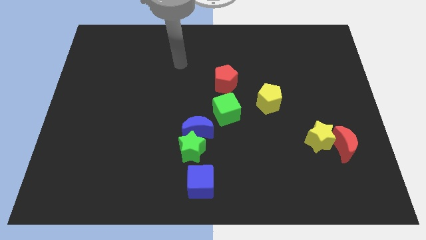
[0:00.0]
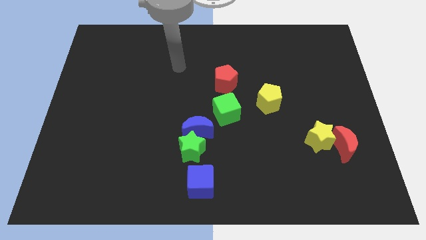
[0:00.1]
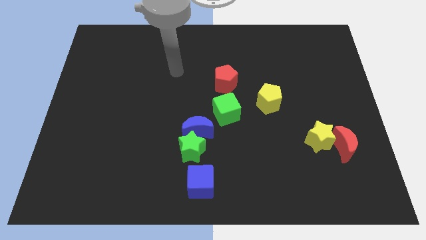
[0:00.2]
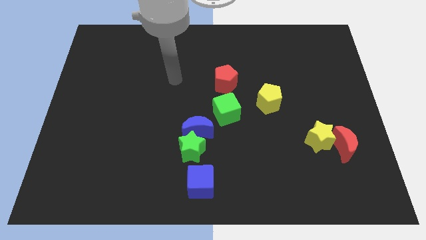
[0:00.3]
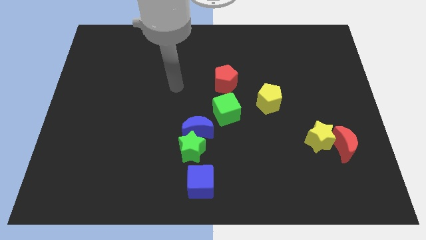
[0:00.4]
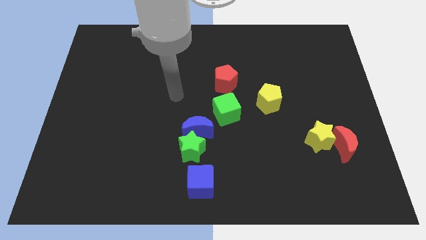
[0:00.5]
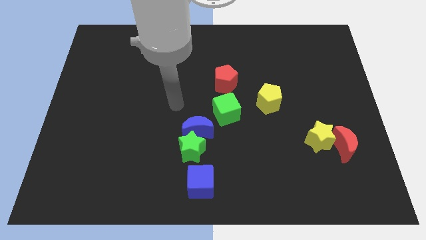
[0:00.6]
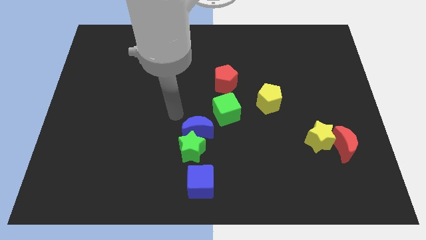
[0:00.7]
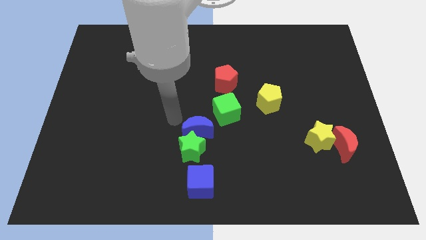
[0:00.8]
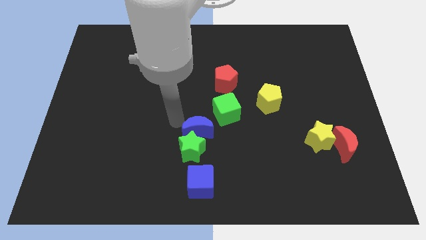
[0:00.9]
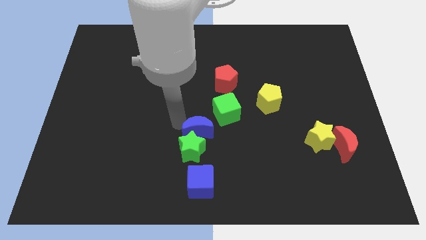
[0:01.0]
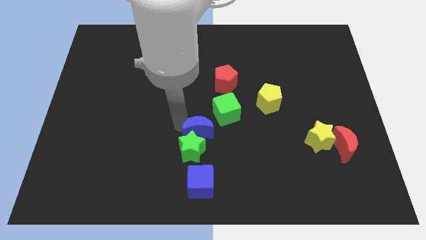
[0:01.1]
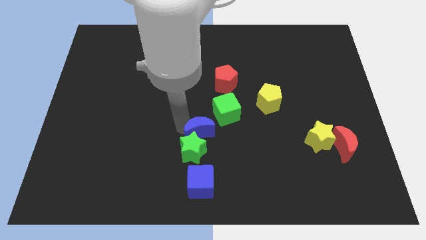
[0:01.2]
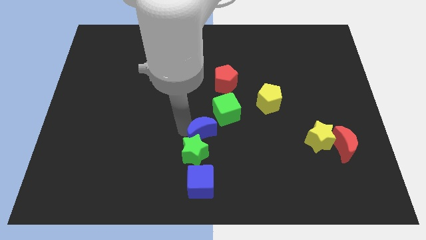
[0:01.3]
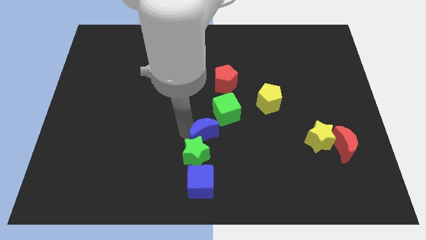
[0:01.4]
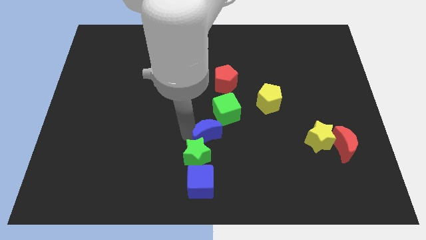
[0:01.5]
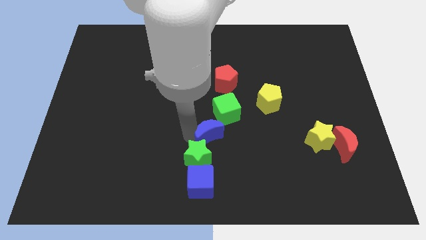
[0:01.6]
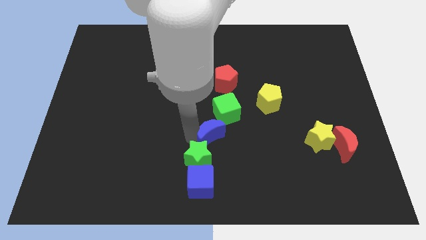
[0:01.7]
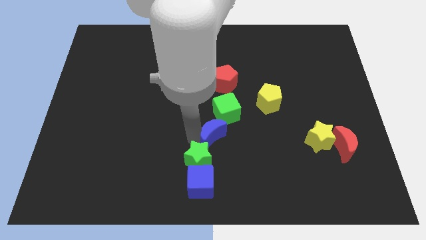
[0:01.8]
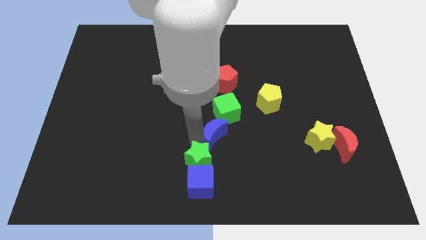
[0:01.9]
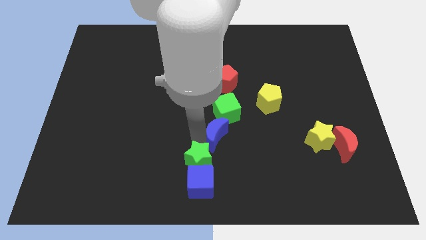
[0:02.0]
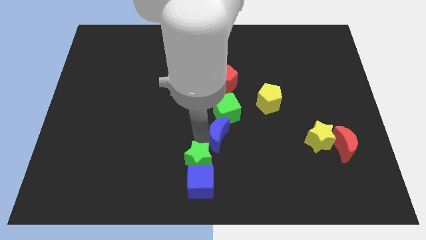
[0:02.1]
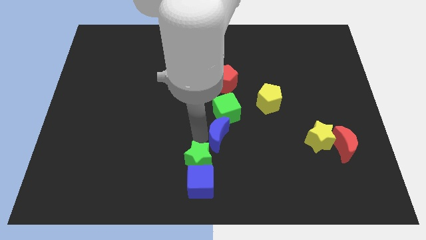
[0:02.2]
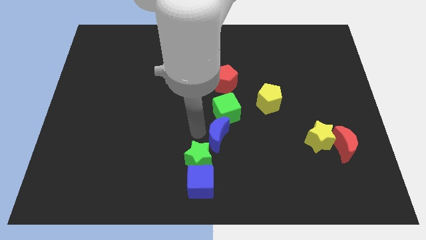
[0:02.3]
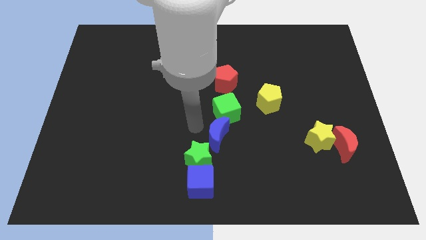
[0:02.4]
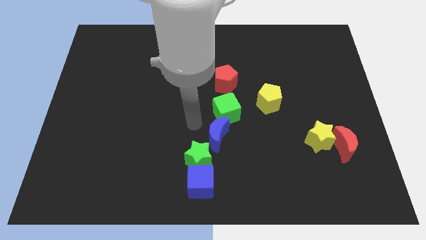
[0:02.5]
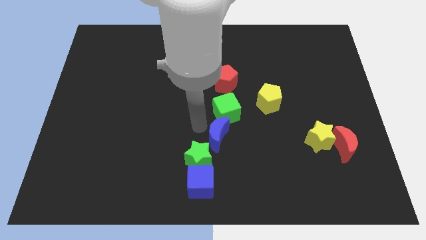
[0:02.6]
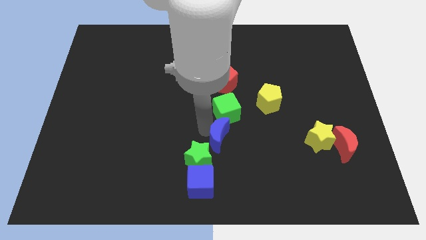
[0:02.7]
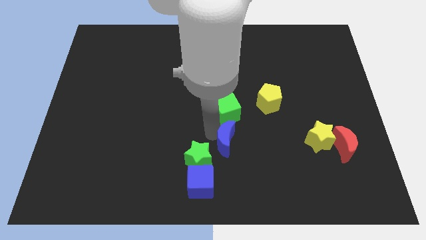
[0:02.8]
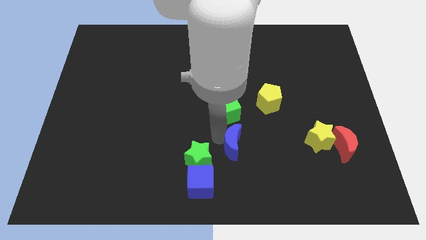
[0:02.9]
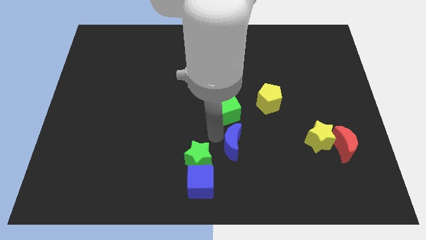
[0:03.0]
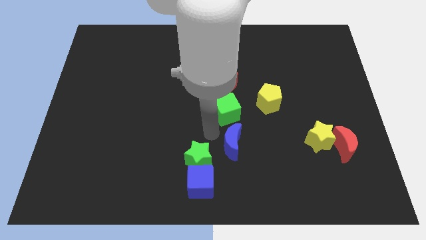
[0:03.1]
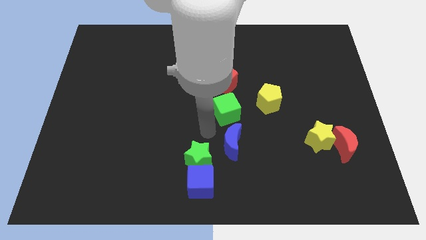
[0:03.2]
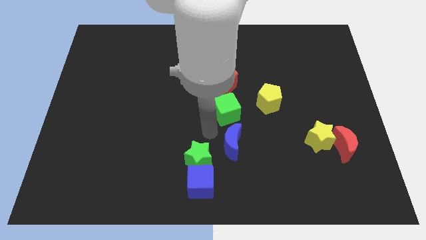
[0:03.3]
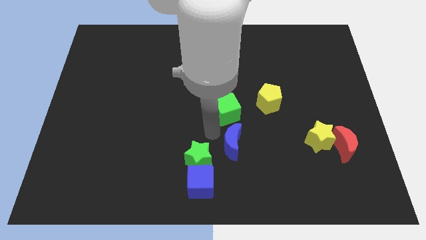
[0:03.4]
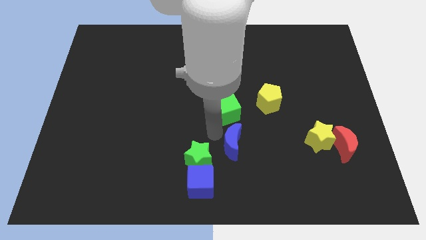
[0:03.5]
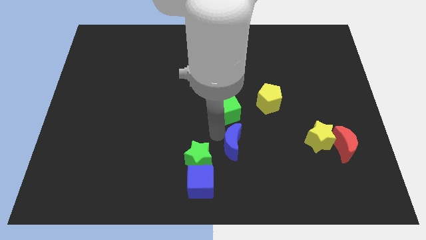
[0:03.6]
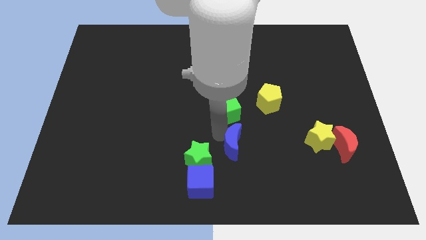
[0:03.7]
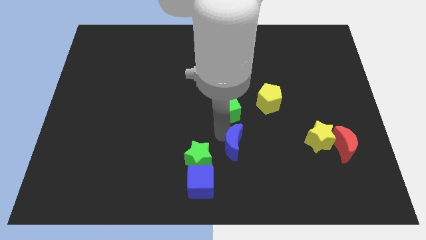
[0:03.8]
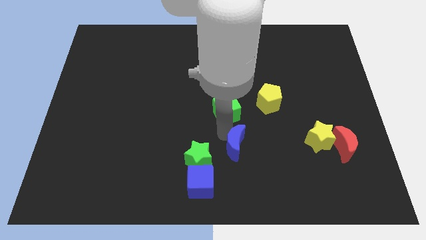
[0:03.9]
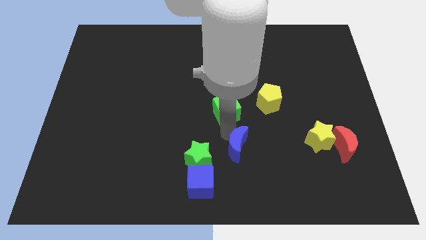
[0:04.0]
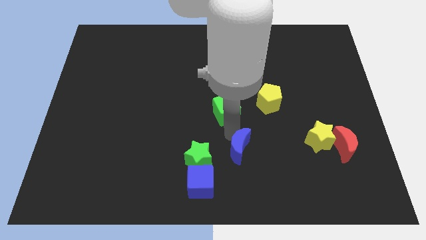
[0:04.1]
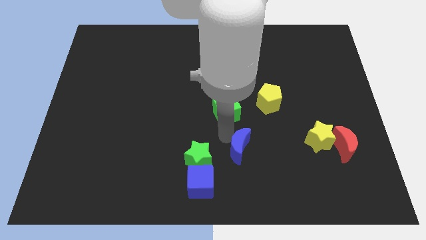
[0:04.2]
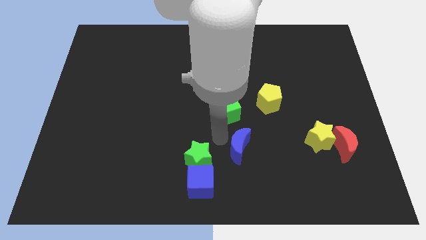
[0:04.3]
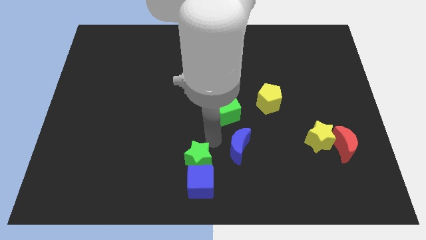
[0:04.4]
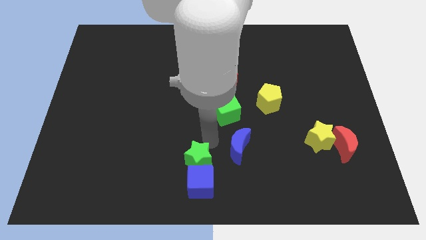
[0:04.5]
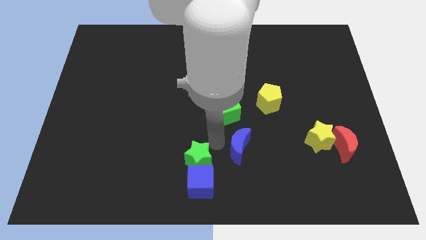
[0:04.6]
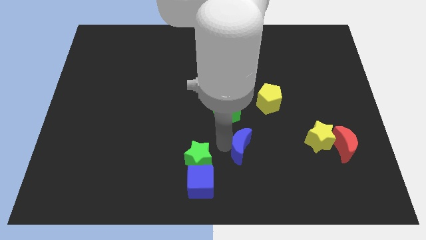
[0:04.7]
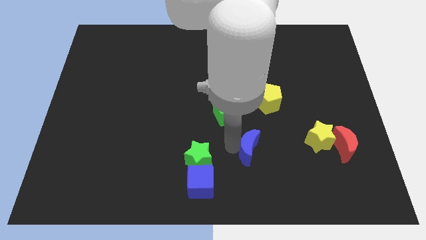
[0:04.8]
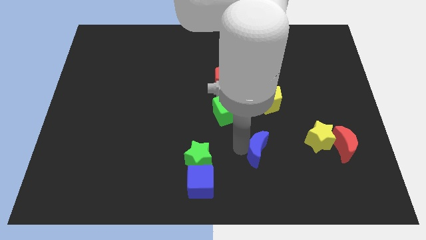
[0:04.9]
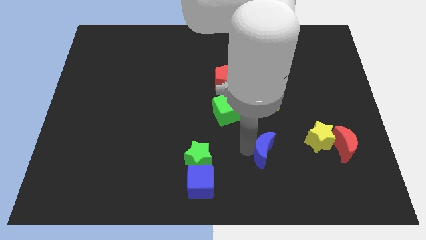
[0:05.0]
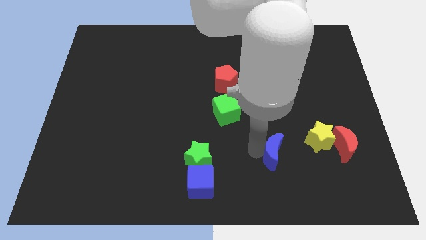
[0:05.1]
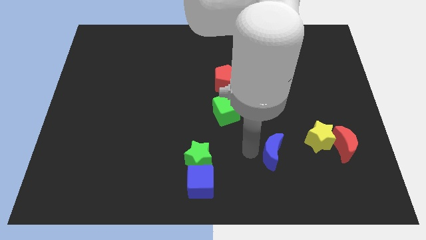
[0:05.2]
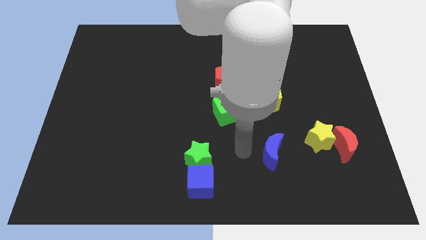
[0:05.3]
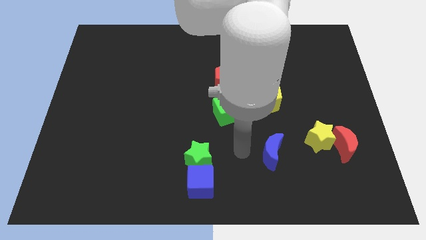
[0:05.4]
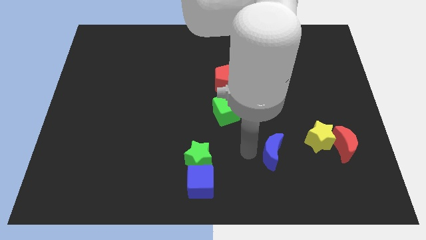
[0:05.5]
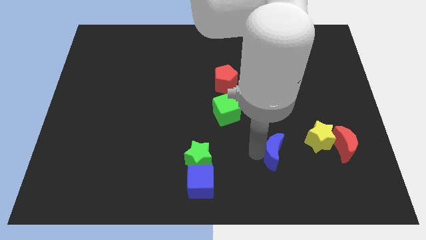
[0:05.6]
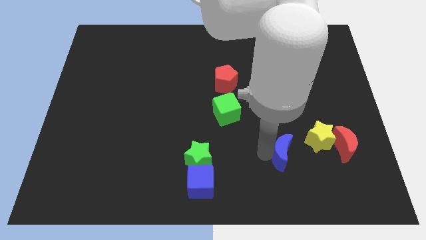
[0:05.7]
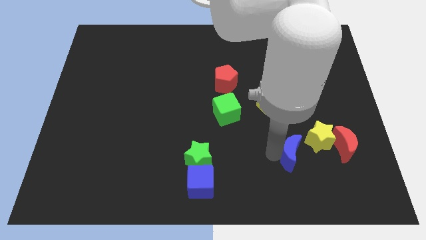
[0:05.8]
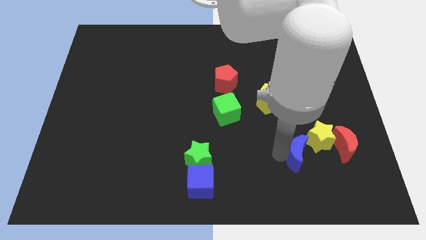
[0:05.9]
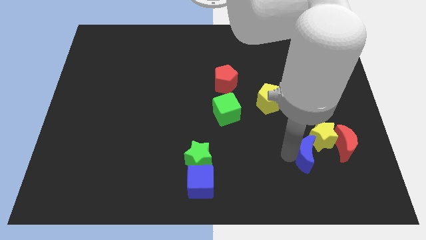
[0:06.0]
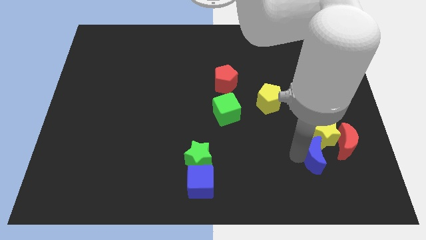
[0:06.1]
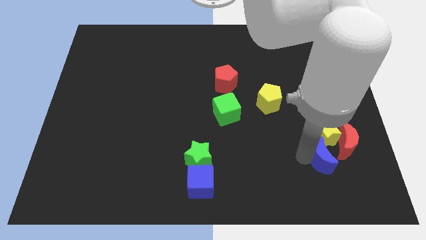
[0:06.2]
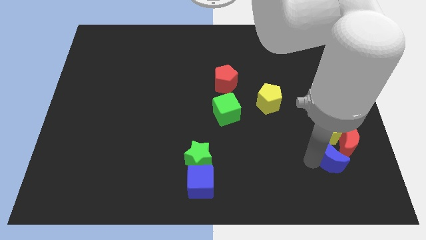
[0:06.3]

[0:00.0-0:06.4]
put the blue moon to the red moon

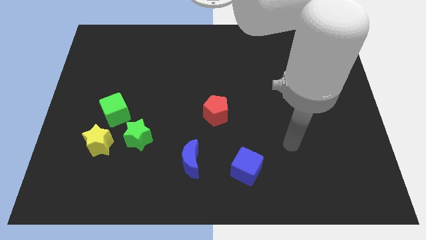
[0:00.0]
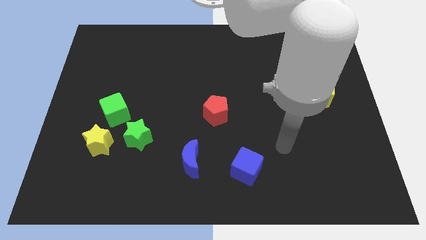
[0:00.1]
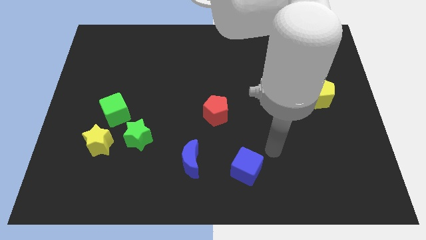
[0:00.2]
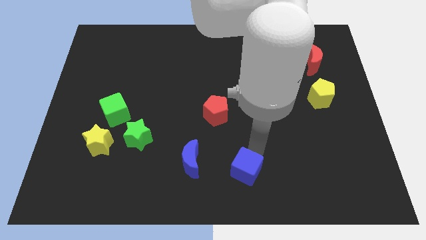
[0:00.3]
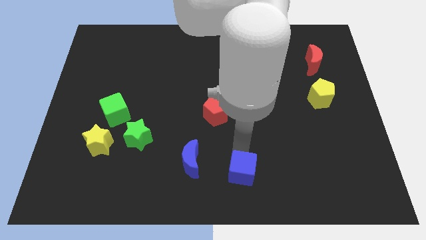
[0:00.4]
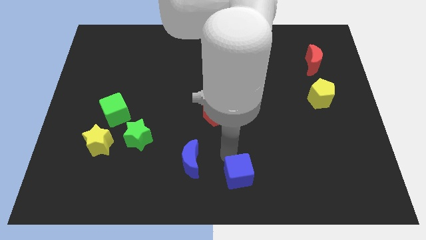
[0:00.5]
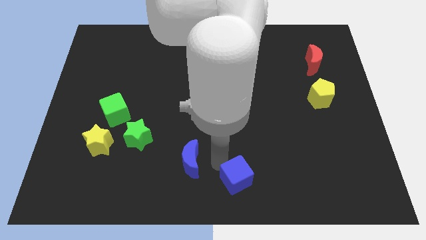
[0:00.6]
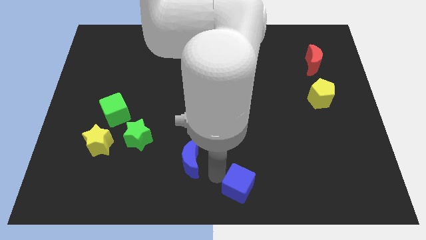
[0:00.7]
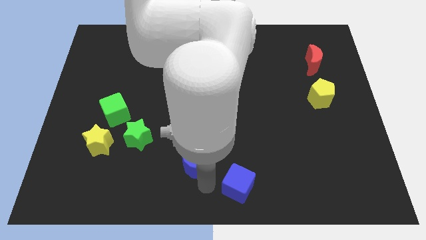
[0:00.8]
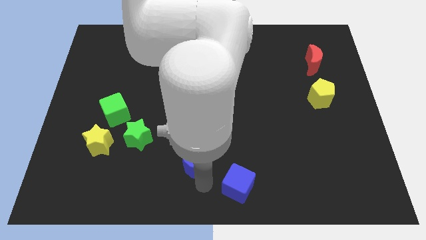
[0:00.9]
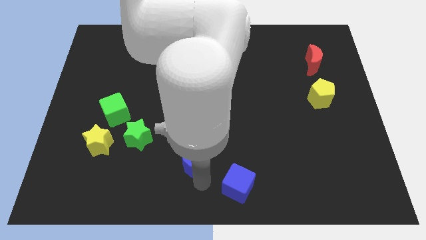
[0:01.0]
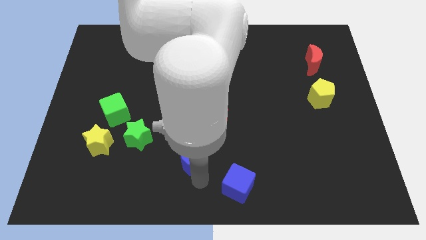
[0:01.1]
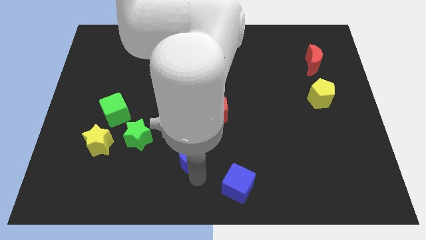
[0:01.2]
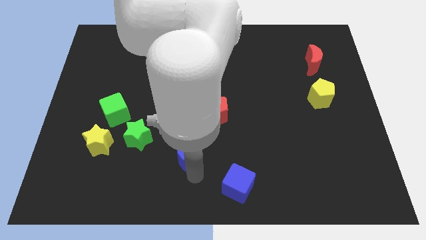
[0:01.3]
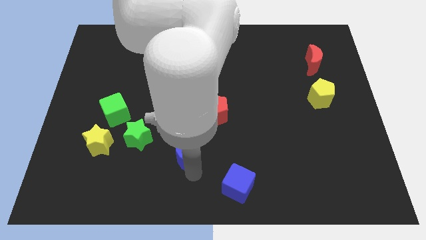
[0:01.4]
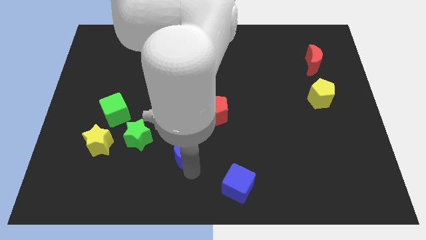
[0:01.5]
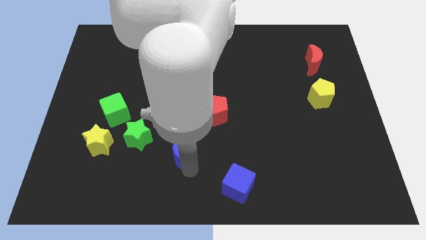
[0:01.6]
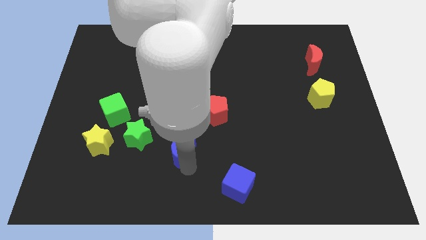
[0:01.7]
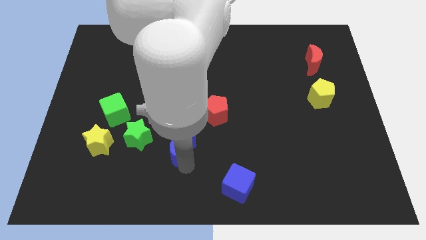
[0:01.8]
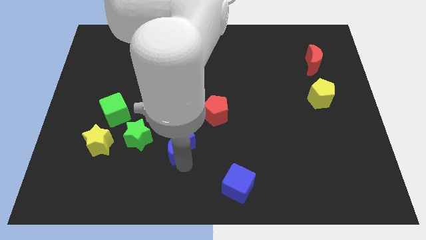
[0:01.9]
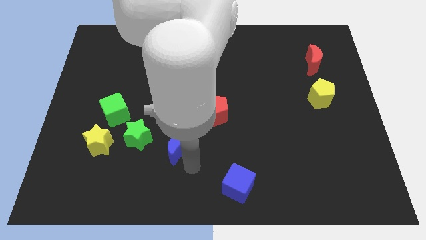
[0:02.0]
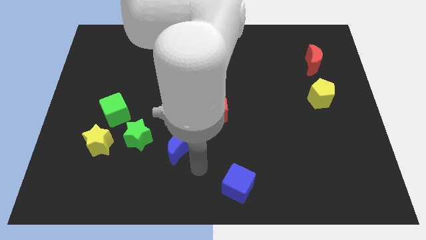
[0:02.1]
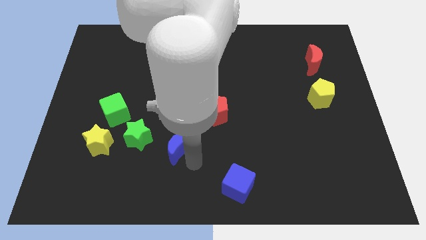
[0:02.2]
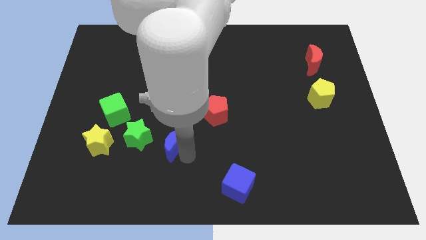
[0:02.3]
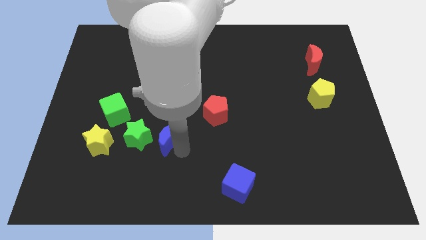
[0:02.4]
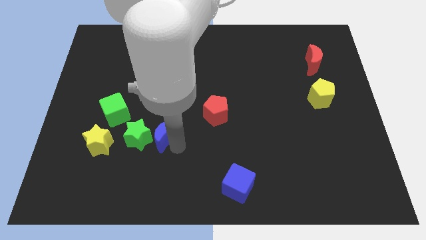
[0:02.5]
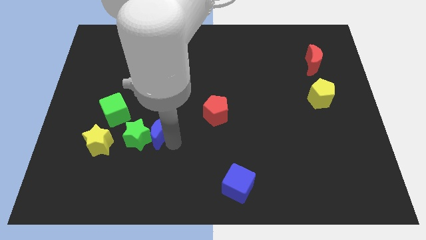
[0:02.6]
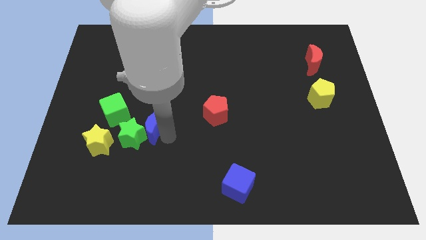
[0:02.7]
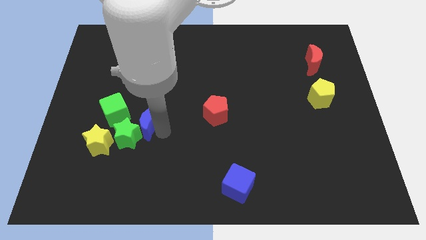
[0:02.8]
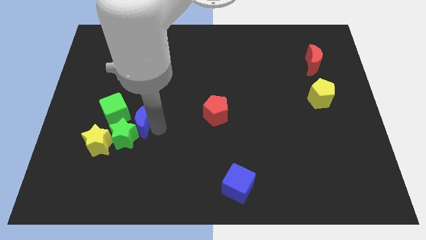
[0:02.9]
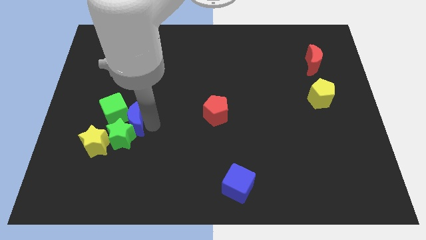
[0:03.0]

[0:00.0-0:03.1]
move the blue moon towards the green cube
